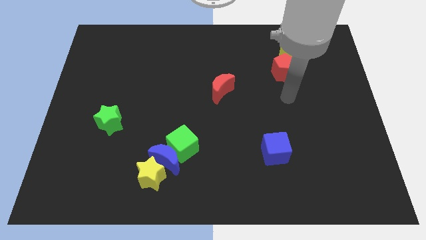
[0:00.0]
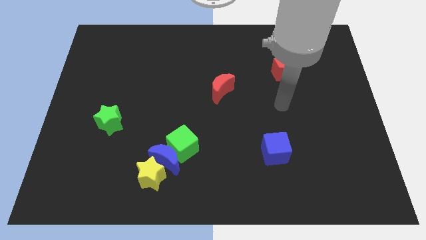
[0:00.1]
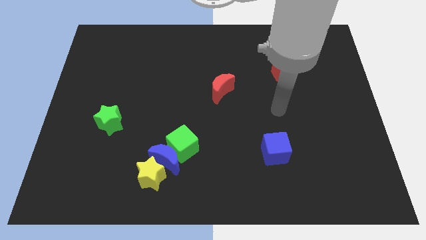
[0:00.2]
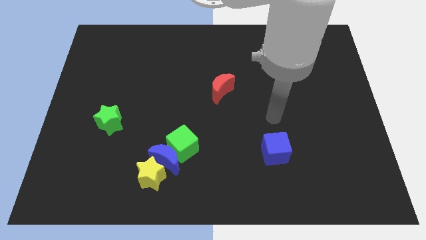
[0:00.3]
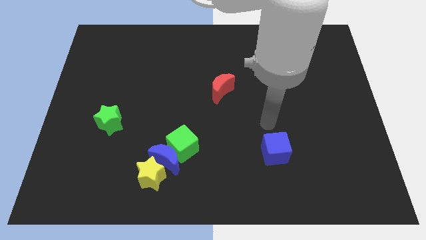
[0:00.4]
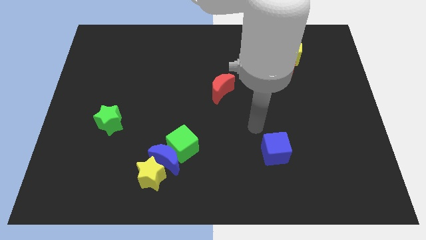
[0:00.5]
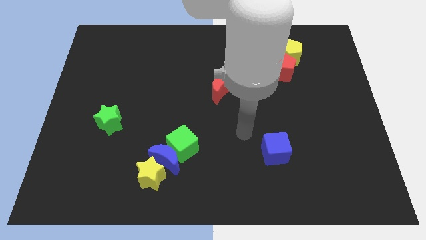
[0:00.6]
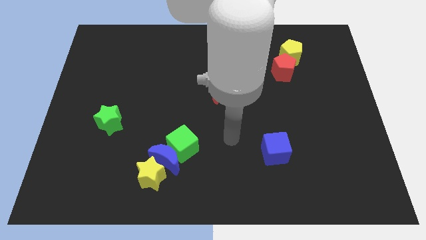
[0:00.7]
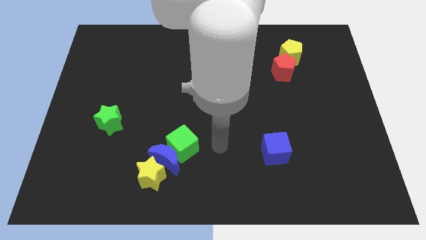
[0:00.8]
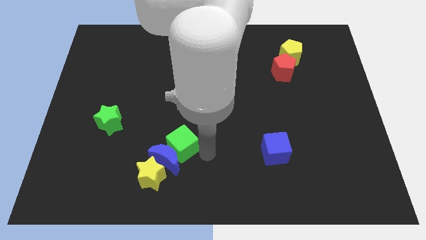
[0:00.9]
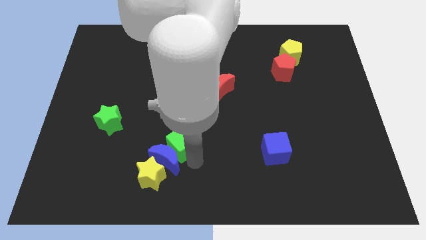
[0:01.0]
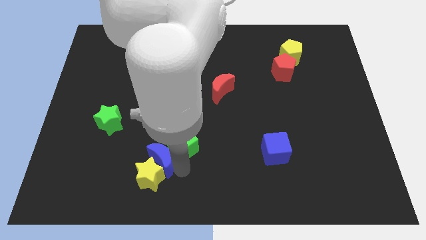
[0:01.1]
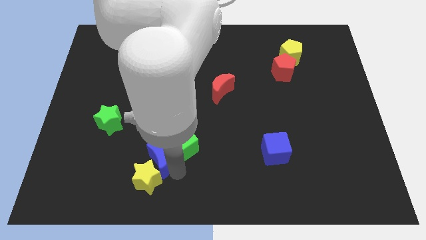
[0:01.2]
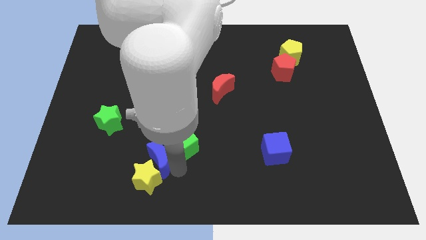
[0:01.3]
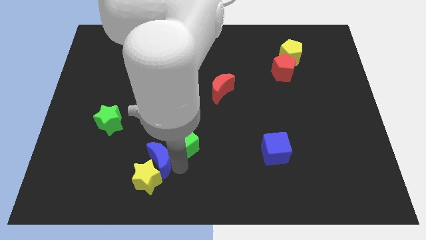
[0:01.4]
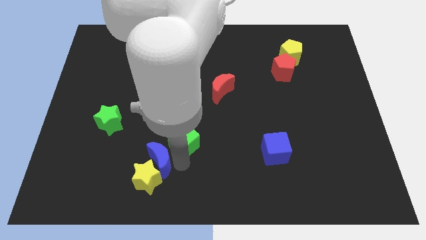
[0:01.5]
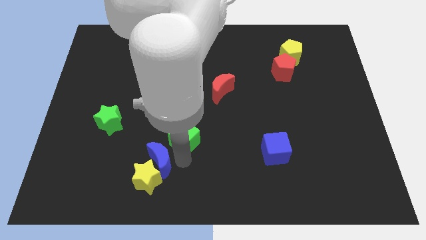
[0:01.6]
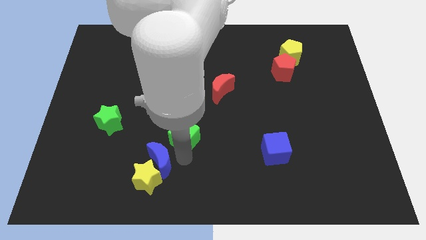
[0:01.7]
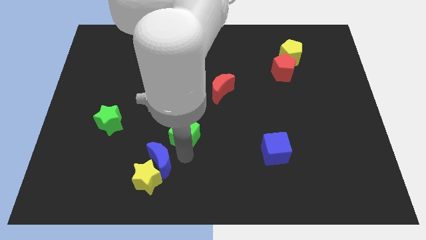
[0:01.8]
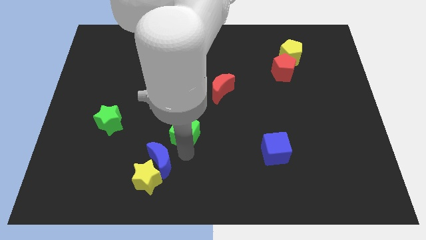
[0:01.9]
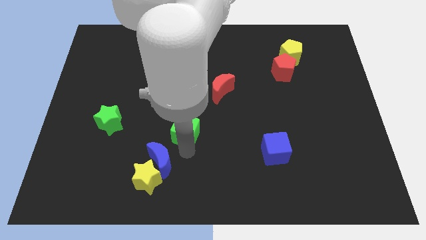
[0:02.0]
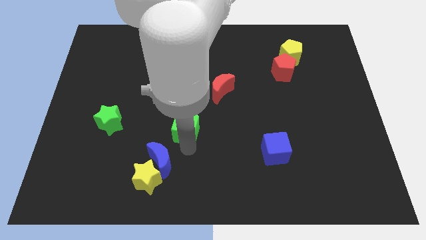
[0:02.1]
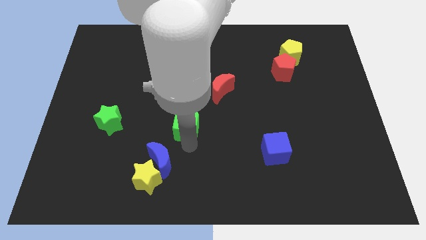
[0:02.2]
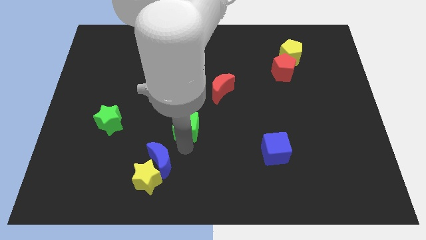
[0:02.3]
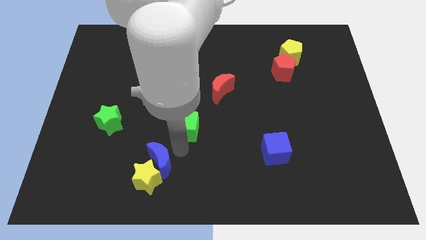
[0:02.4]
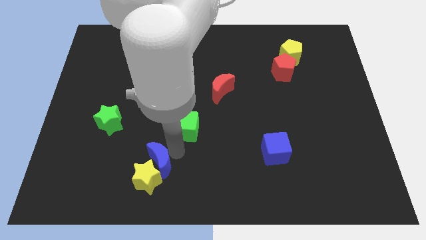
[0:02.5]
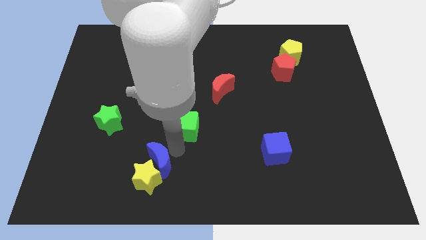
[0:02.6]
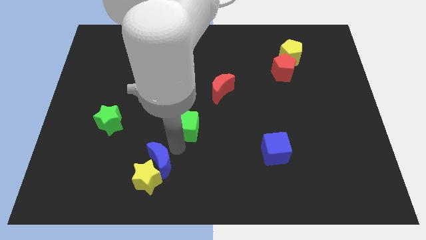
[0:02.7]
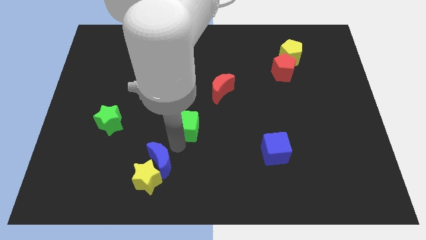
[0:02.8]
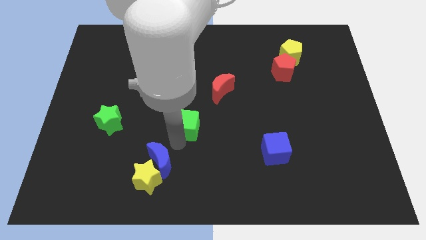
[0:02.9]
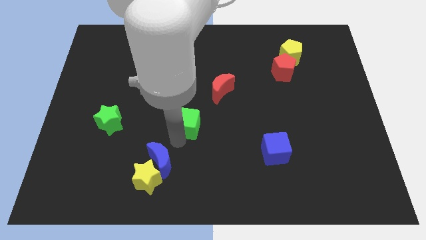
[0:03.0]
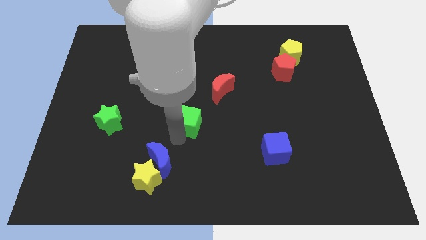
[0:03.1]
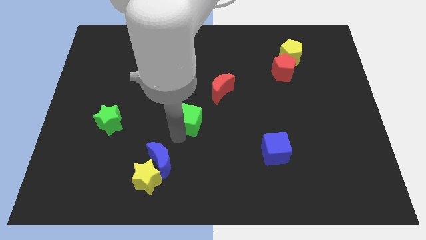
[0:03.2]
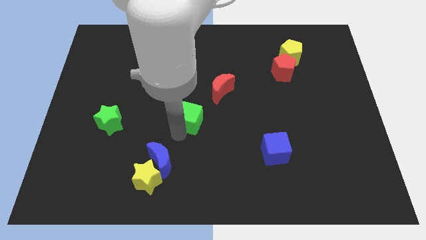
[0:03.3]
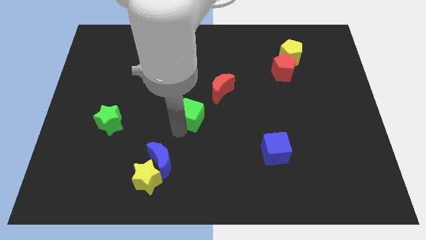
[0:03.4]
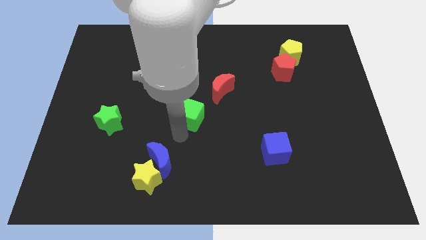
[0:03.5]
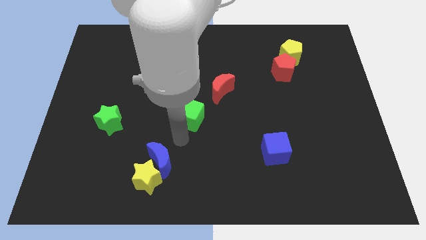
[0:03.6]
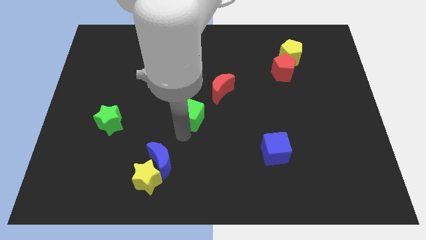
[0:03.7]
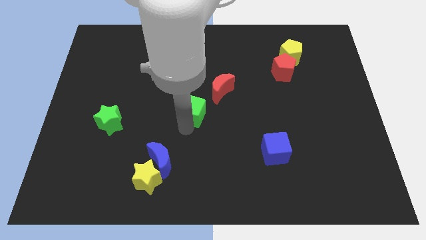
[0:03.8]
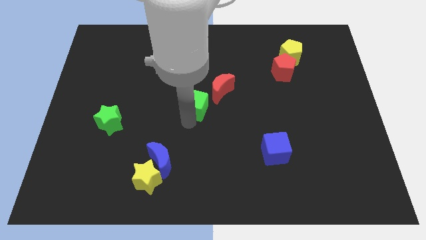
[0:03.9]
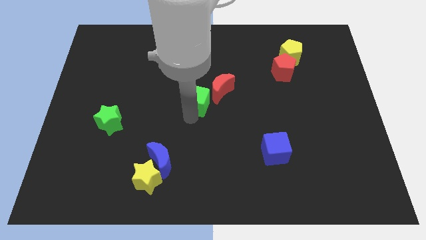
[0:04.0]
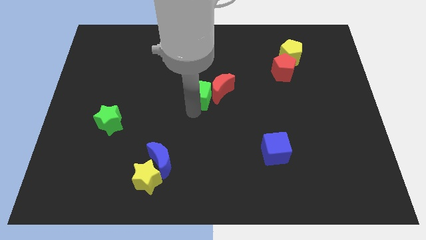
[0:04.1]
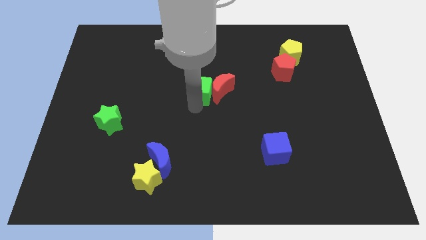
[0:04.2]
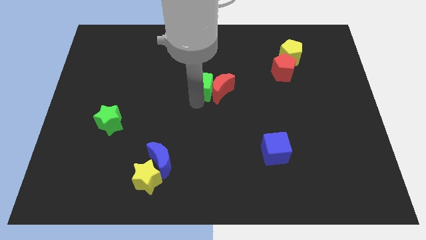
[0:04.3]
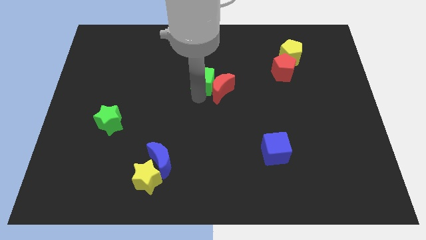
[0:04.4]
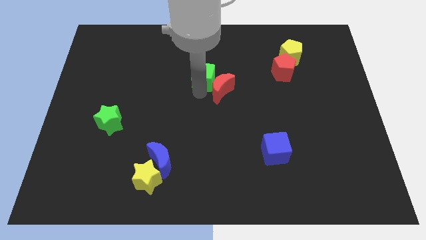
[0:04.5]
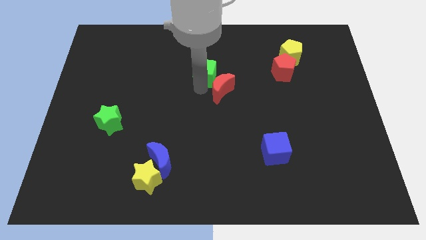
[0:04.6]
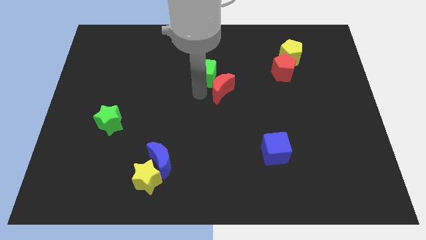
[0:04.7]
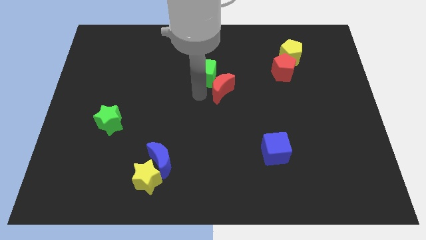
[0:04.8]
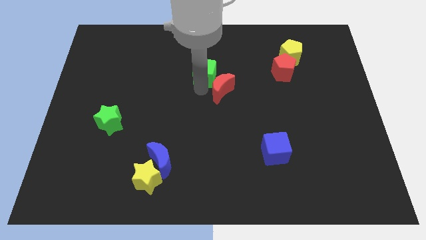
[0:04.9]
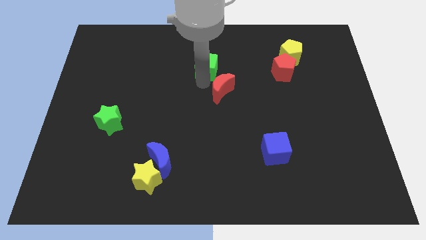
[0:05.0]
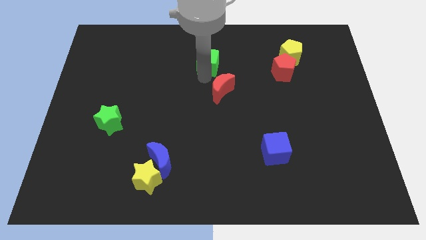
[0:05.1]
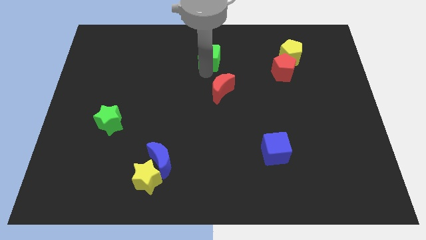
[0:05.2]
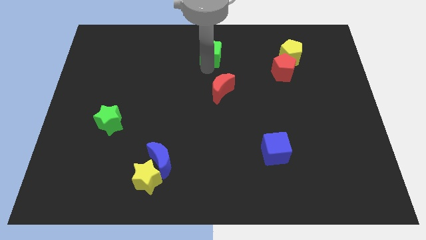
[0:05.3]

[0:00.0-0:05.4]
move the green cube to the top
